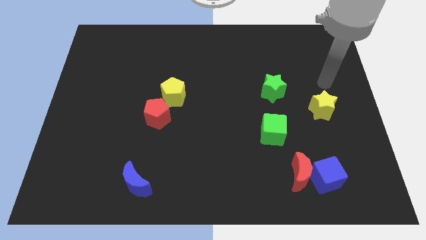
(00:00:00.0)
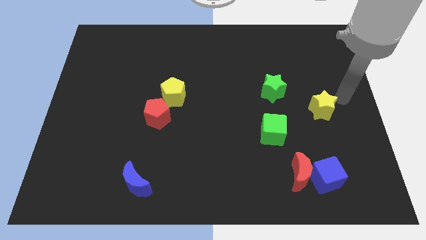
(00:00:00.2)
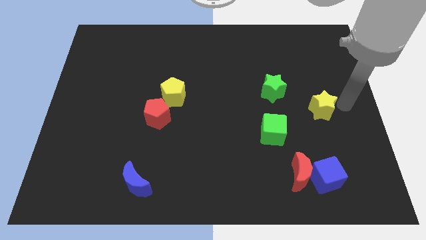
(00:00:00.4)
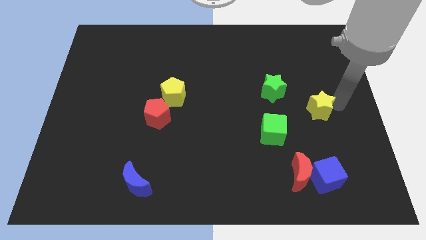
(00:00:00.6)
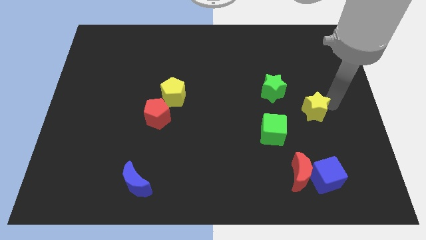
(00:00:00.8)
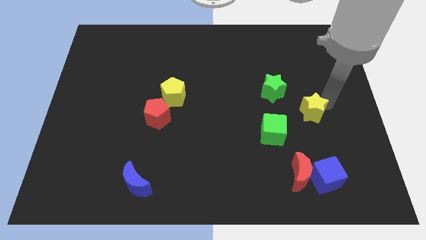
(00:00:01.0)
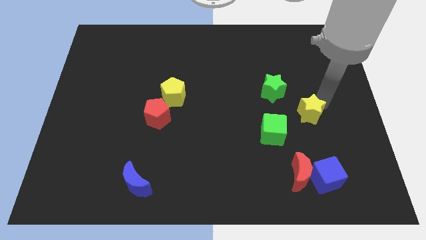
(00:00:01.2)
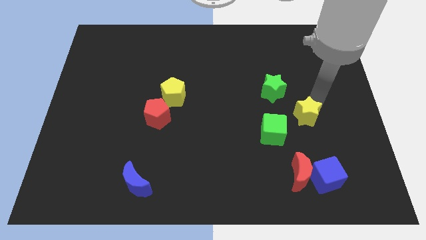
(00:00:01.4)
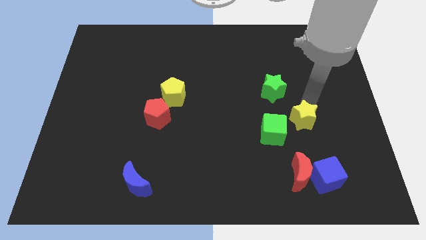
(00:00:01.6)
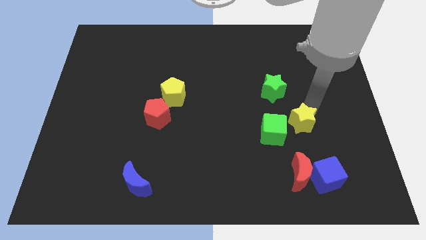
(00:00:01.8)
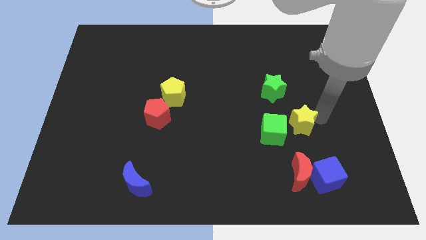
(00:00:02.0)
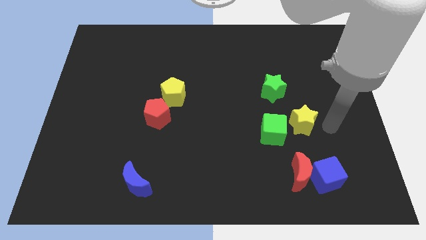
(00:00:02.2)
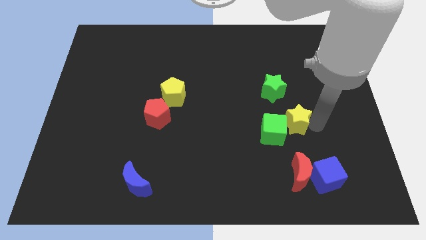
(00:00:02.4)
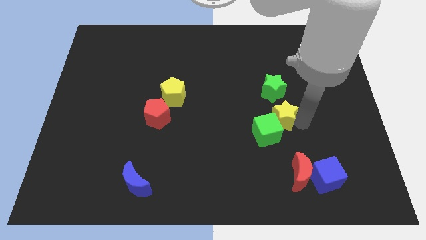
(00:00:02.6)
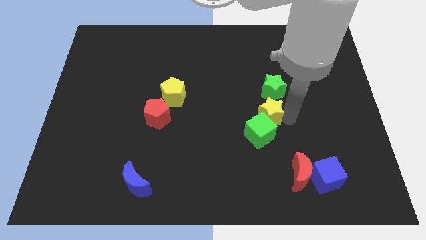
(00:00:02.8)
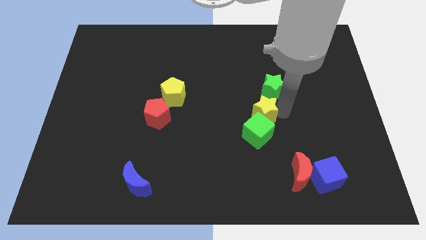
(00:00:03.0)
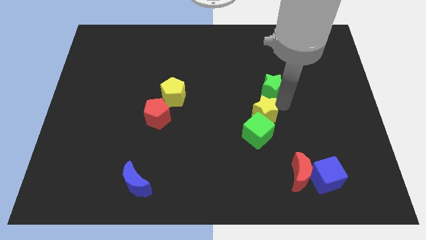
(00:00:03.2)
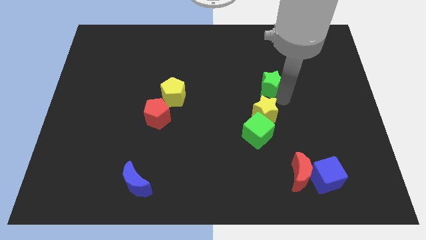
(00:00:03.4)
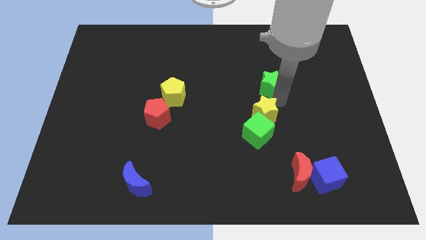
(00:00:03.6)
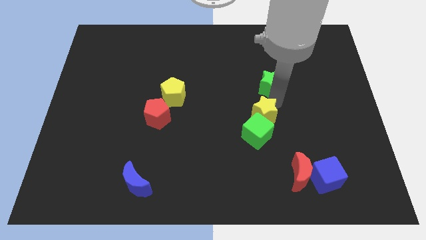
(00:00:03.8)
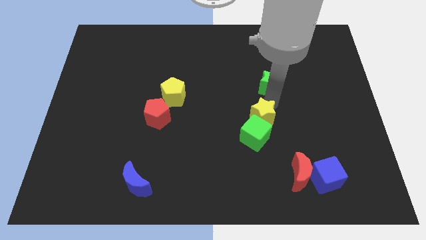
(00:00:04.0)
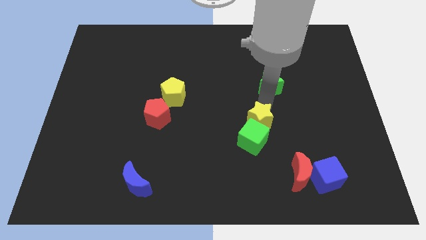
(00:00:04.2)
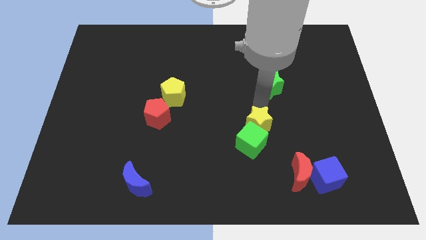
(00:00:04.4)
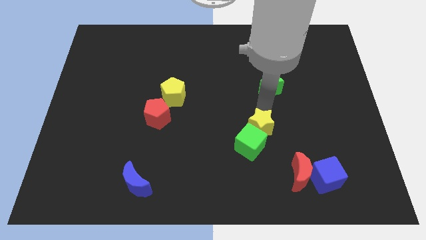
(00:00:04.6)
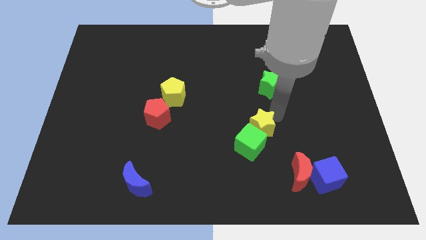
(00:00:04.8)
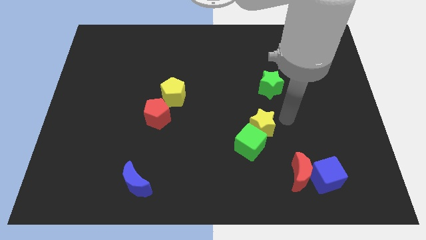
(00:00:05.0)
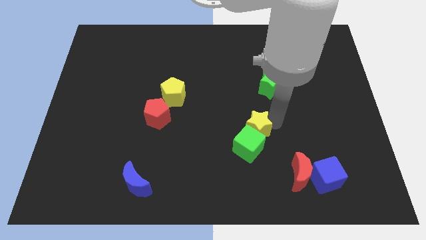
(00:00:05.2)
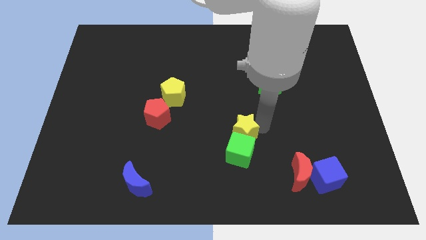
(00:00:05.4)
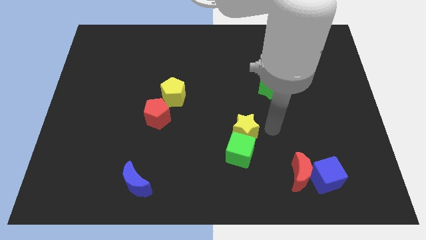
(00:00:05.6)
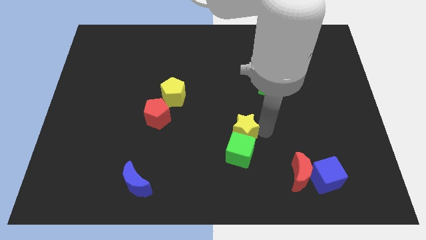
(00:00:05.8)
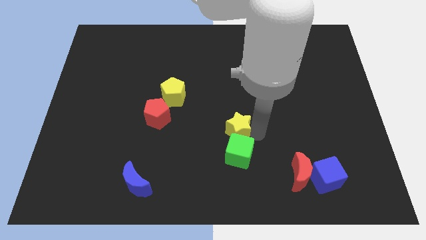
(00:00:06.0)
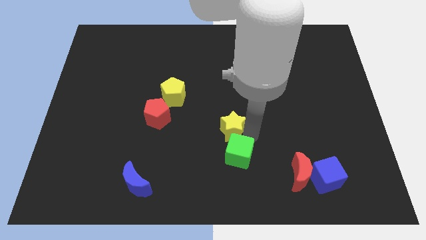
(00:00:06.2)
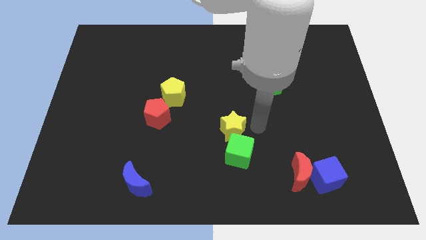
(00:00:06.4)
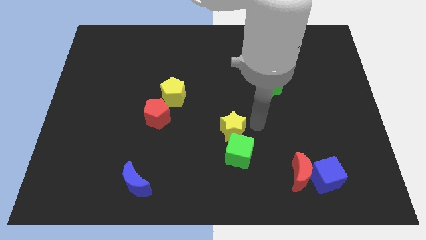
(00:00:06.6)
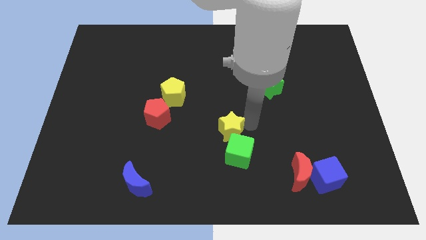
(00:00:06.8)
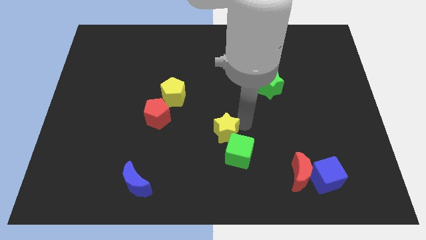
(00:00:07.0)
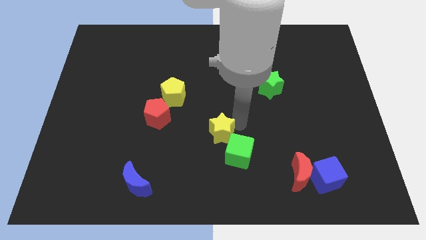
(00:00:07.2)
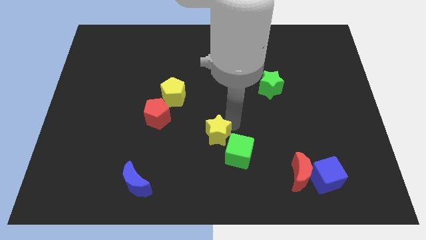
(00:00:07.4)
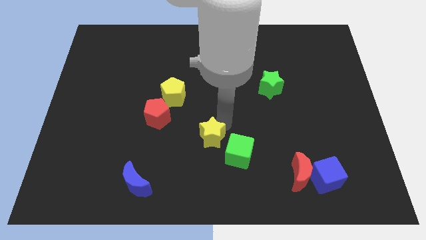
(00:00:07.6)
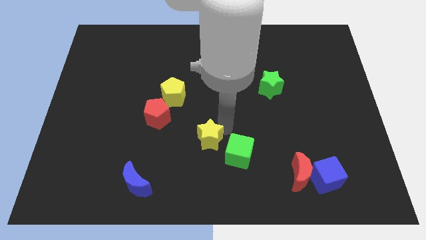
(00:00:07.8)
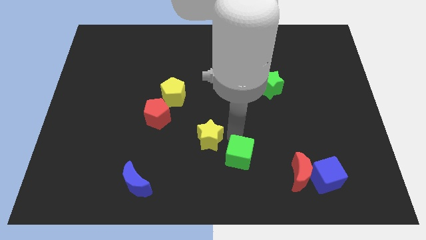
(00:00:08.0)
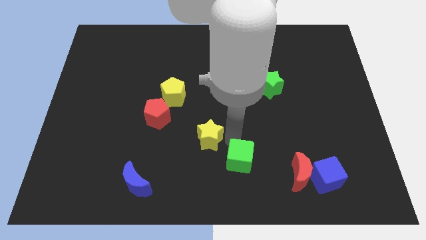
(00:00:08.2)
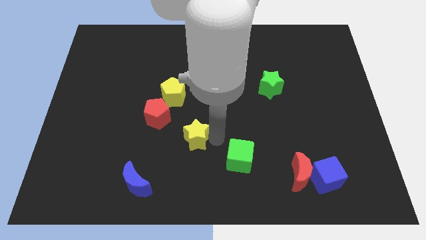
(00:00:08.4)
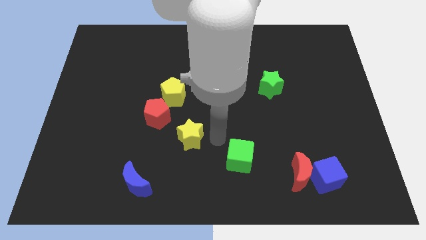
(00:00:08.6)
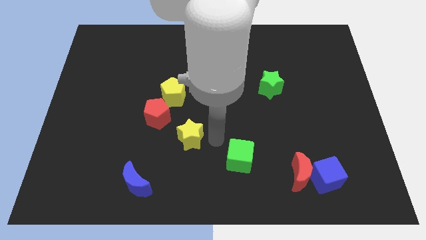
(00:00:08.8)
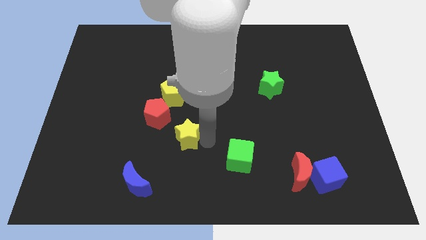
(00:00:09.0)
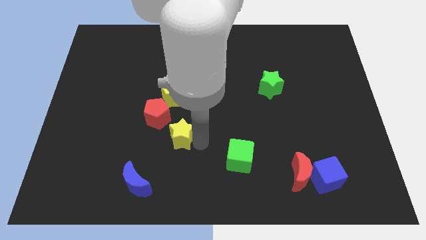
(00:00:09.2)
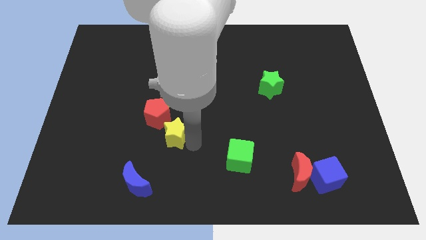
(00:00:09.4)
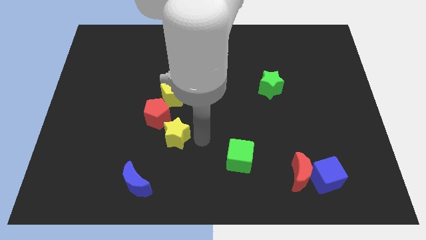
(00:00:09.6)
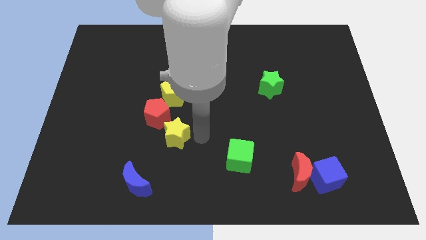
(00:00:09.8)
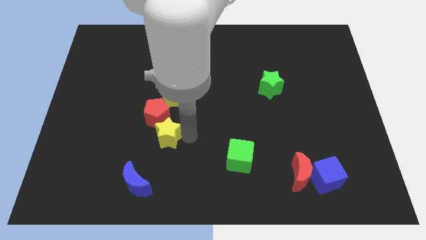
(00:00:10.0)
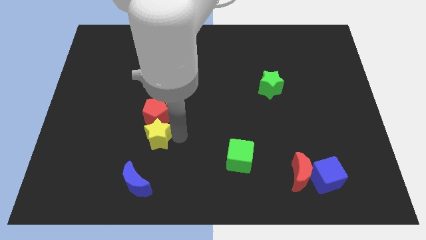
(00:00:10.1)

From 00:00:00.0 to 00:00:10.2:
slide the yellow star diagonally down and to the left of the red pentagon

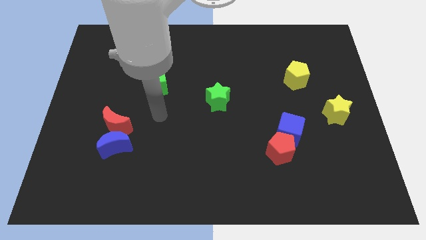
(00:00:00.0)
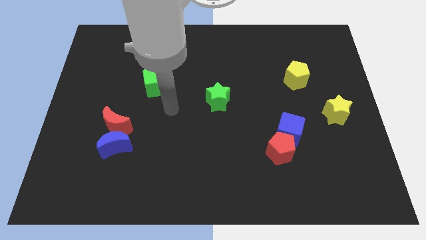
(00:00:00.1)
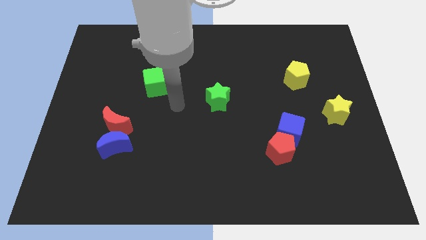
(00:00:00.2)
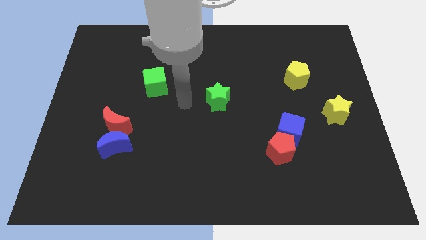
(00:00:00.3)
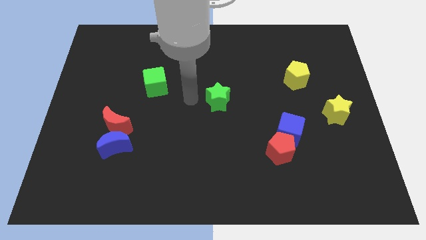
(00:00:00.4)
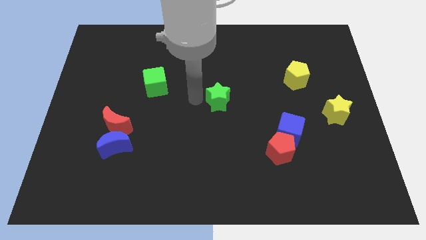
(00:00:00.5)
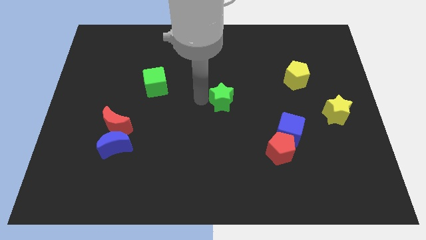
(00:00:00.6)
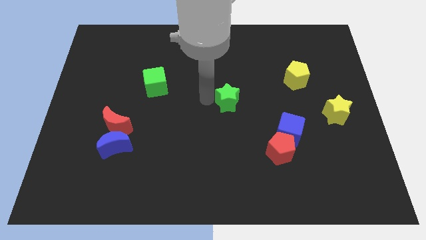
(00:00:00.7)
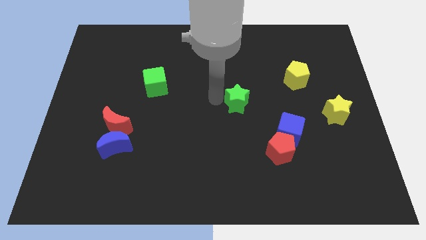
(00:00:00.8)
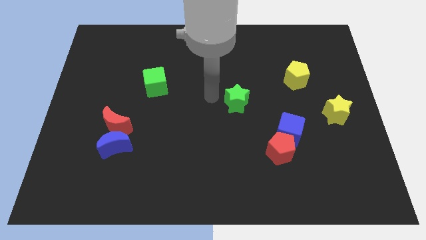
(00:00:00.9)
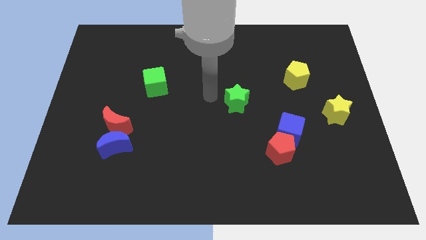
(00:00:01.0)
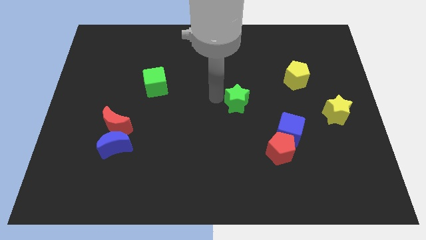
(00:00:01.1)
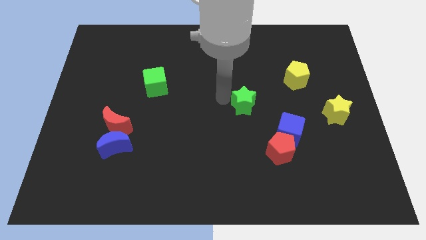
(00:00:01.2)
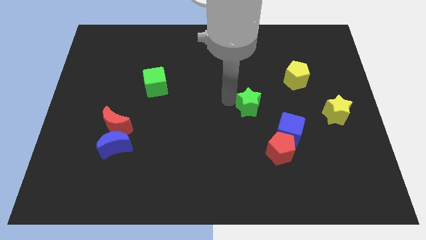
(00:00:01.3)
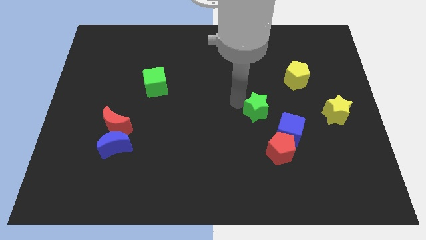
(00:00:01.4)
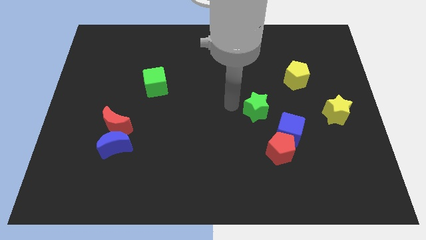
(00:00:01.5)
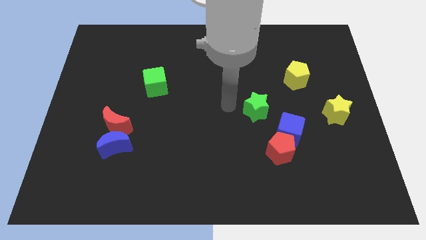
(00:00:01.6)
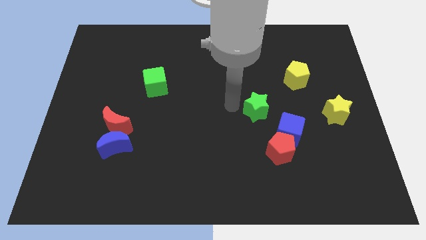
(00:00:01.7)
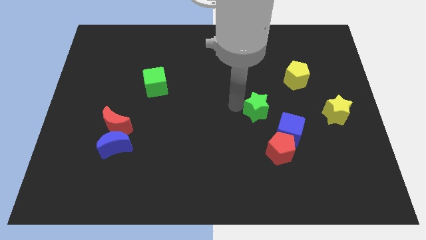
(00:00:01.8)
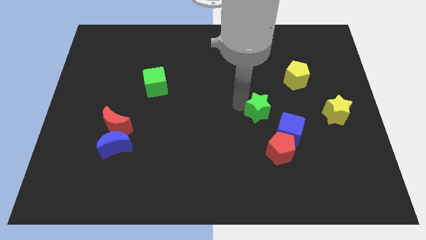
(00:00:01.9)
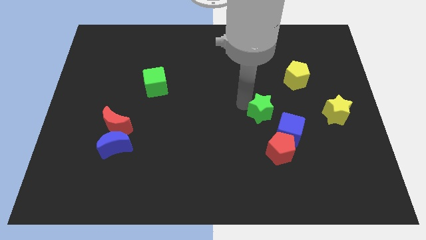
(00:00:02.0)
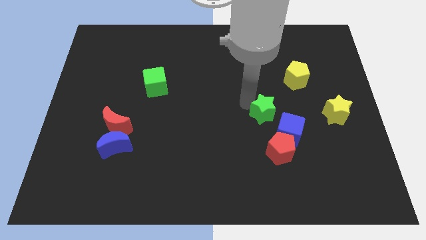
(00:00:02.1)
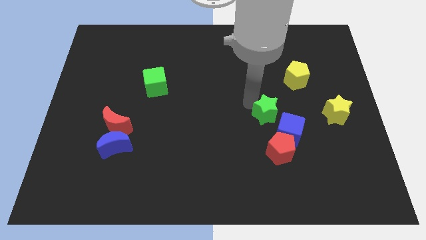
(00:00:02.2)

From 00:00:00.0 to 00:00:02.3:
push the green star left of the yellow star

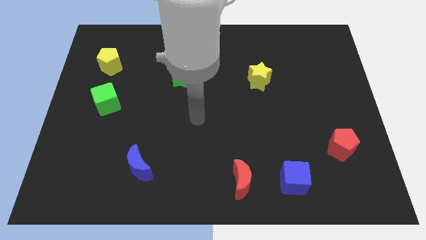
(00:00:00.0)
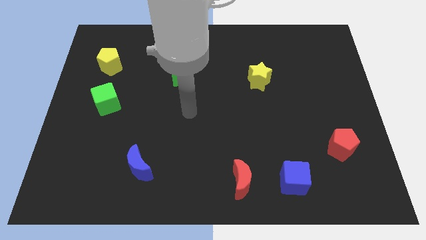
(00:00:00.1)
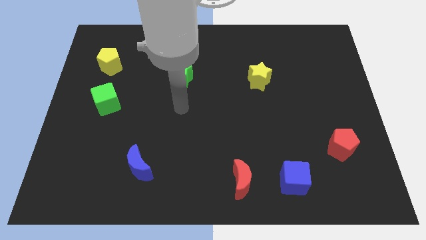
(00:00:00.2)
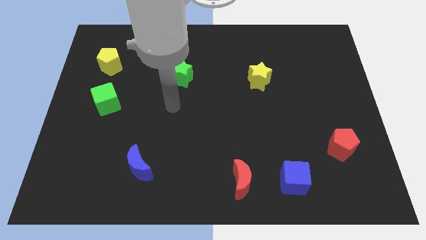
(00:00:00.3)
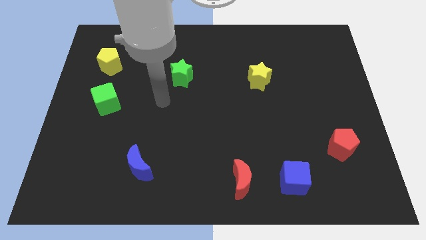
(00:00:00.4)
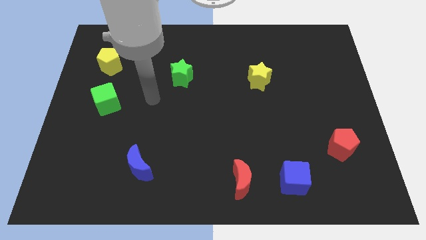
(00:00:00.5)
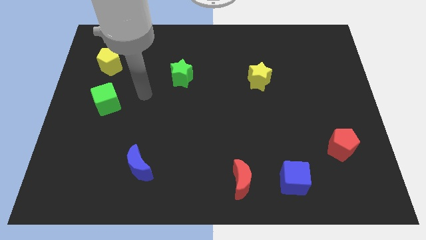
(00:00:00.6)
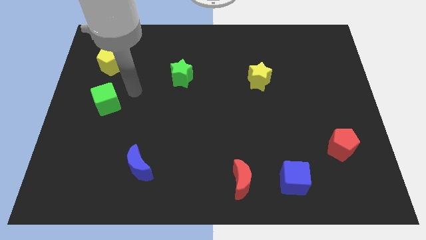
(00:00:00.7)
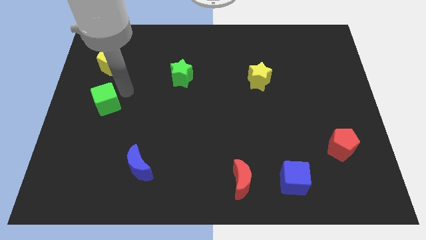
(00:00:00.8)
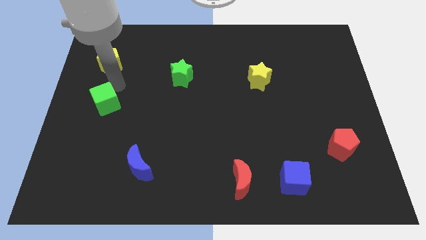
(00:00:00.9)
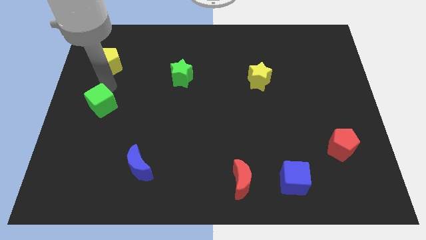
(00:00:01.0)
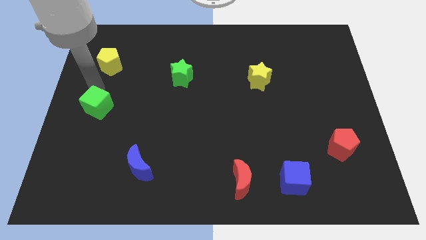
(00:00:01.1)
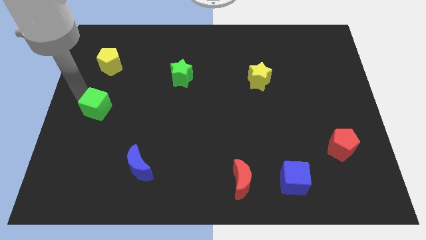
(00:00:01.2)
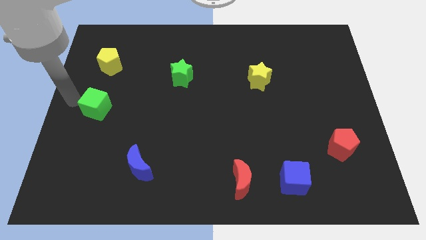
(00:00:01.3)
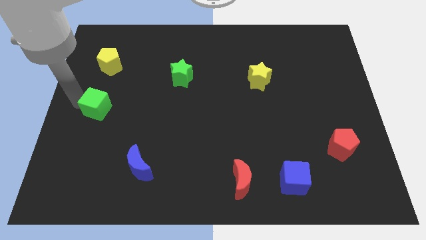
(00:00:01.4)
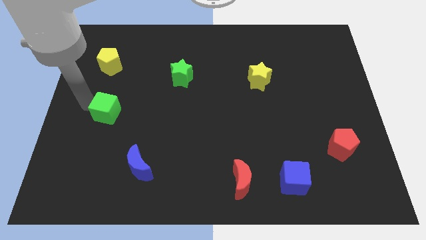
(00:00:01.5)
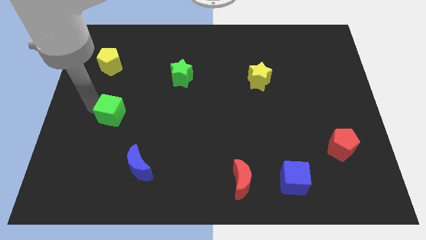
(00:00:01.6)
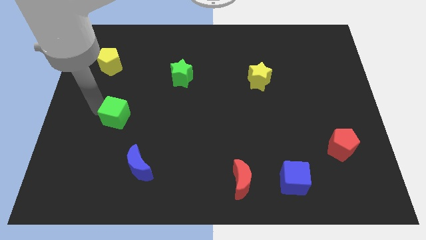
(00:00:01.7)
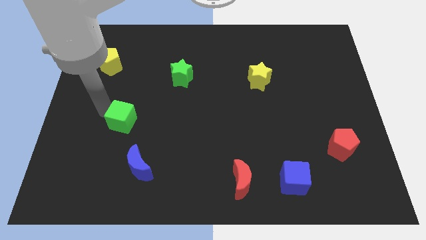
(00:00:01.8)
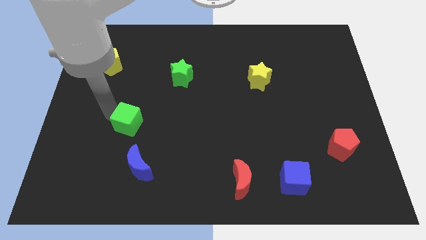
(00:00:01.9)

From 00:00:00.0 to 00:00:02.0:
slide the green cube to the top side of the blue moon
